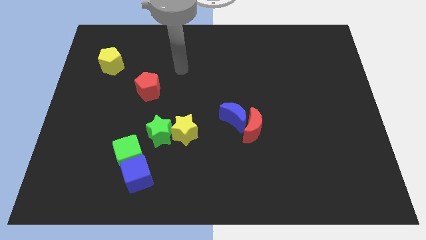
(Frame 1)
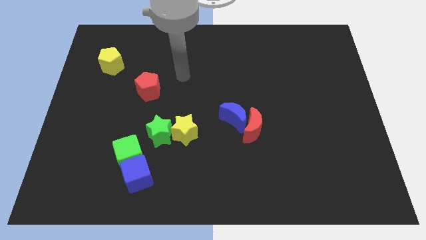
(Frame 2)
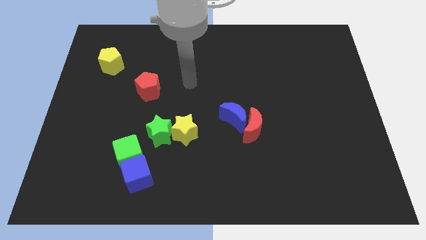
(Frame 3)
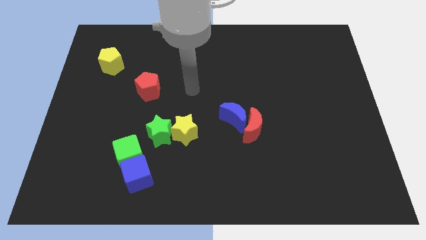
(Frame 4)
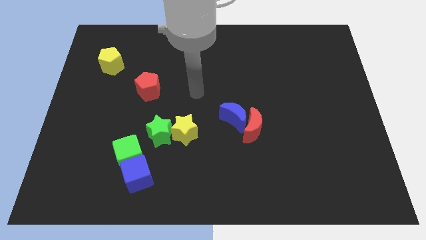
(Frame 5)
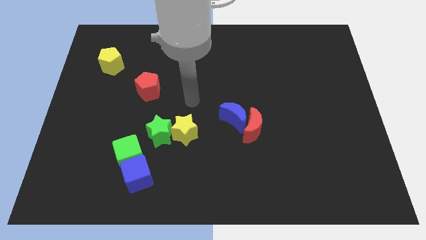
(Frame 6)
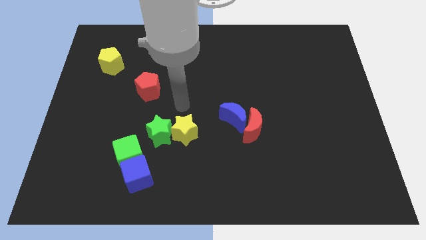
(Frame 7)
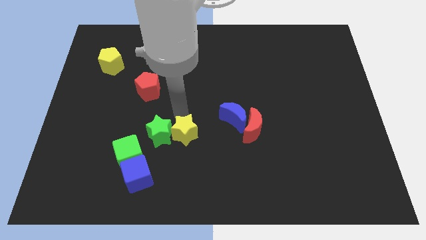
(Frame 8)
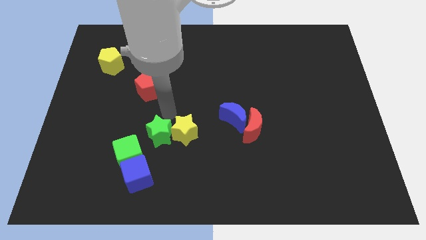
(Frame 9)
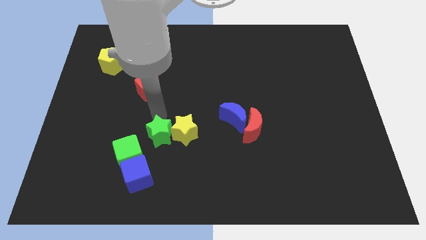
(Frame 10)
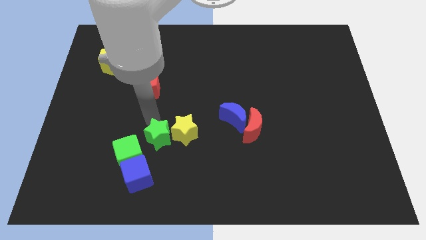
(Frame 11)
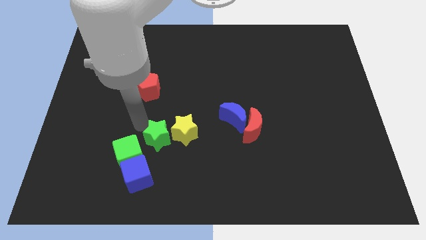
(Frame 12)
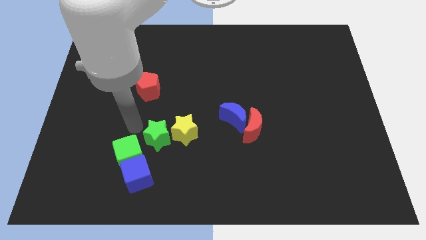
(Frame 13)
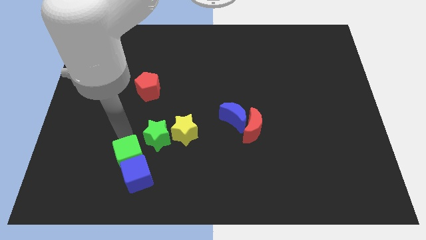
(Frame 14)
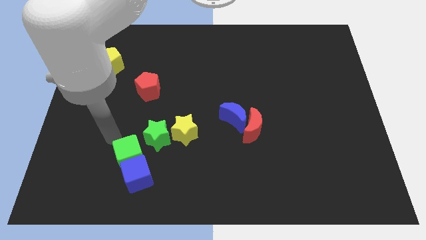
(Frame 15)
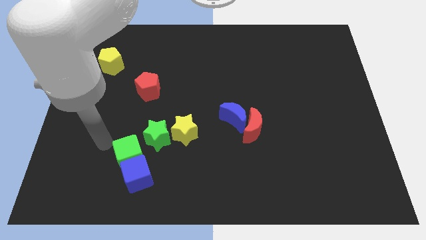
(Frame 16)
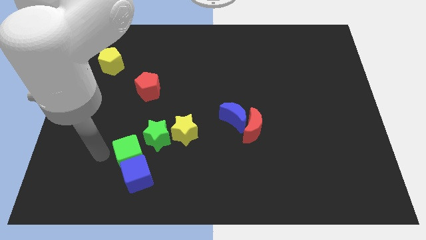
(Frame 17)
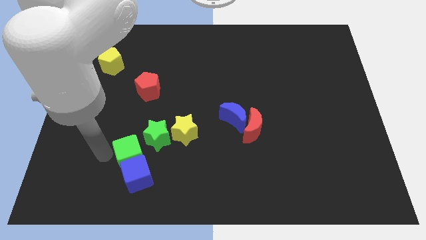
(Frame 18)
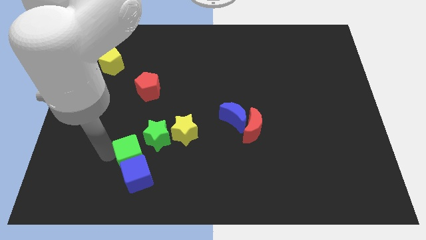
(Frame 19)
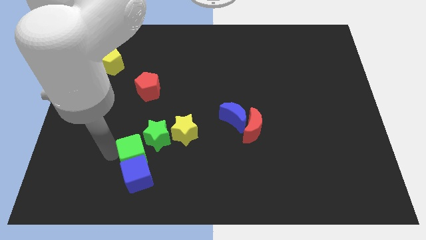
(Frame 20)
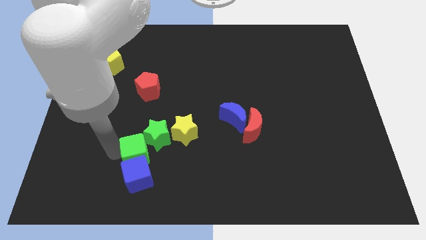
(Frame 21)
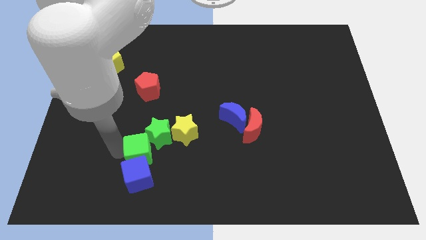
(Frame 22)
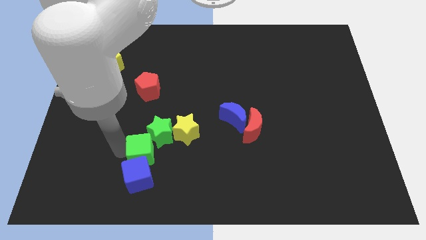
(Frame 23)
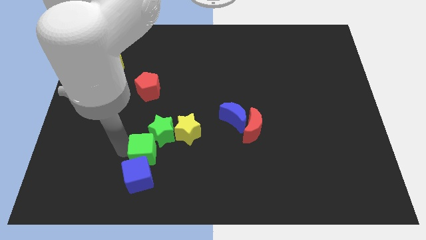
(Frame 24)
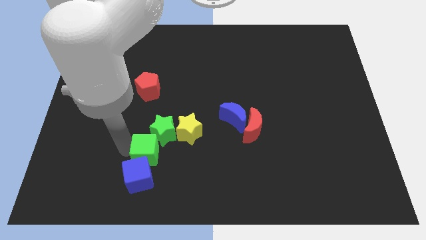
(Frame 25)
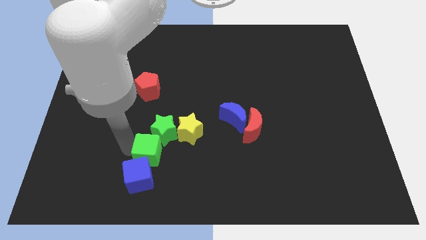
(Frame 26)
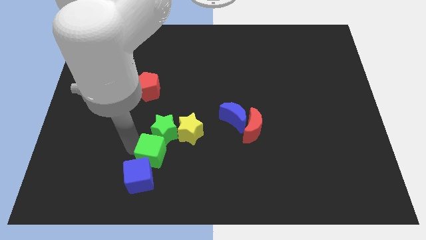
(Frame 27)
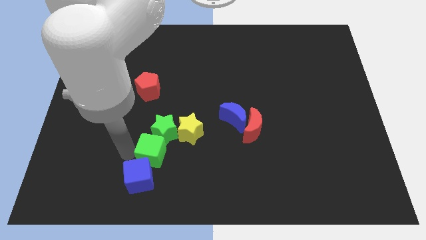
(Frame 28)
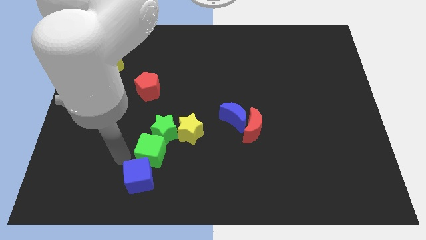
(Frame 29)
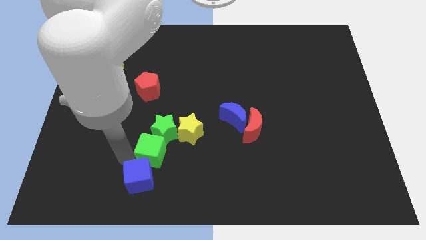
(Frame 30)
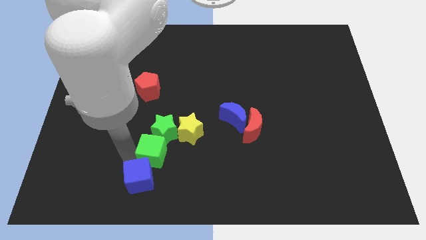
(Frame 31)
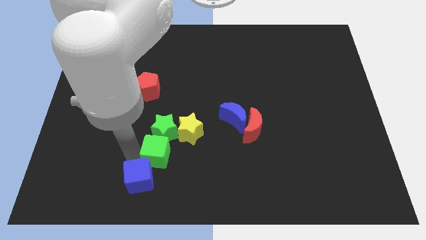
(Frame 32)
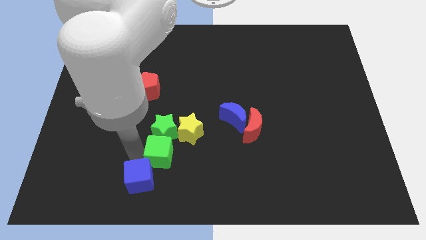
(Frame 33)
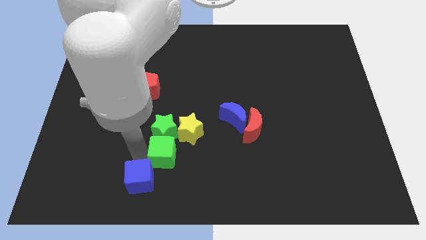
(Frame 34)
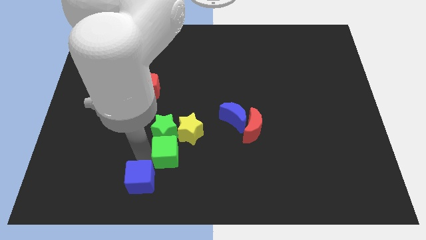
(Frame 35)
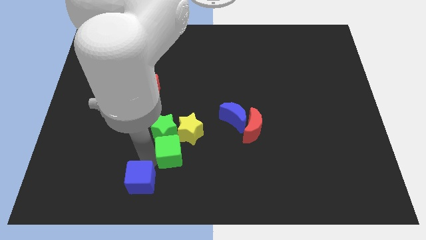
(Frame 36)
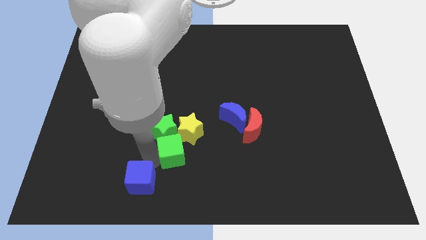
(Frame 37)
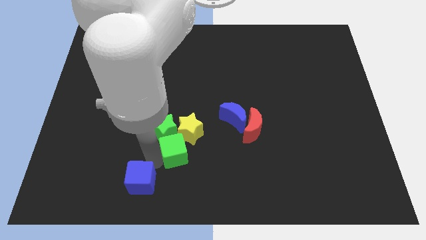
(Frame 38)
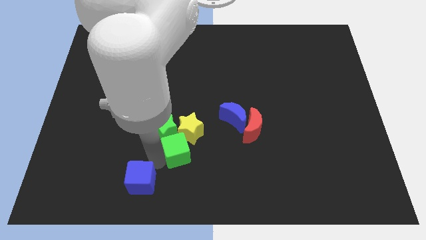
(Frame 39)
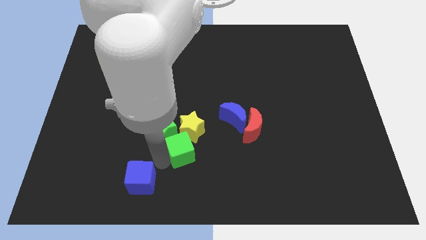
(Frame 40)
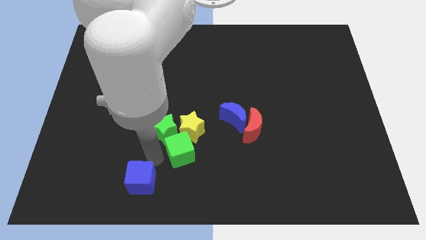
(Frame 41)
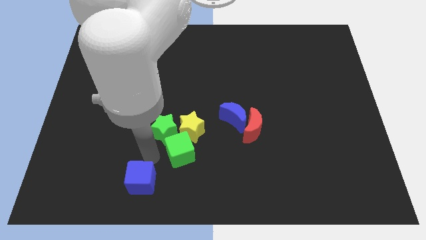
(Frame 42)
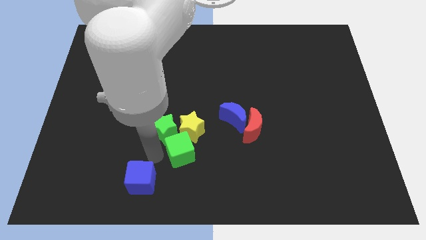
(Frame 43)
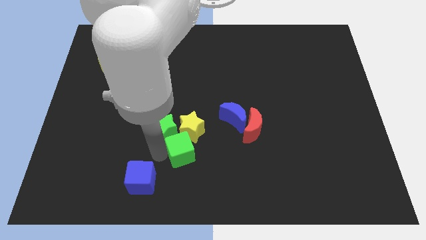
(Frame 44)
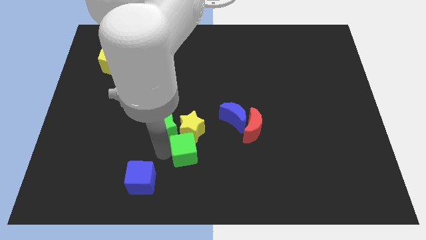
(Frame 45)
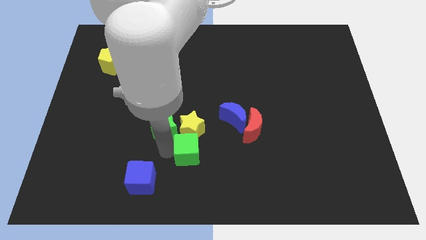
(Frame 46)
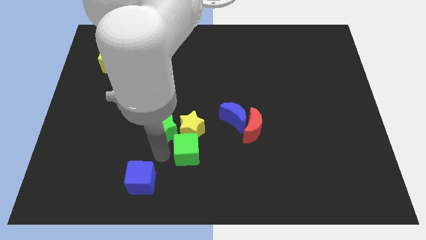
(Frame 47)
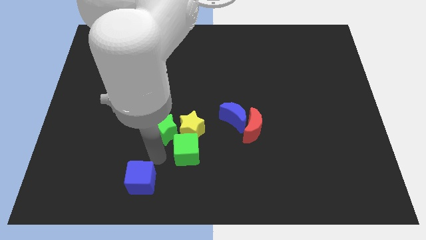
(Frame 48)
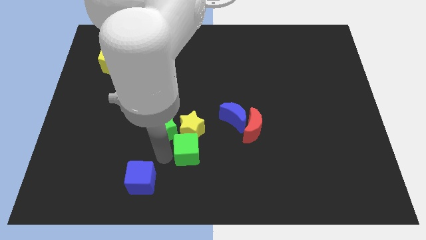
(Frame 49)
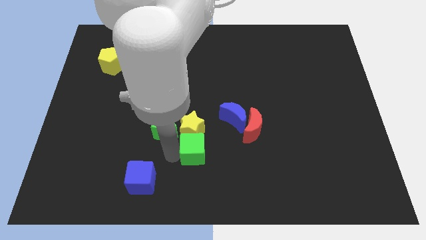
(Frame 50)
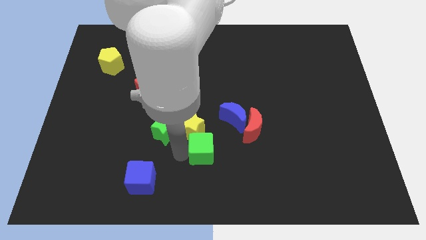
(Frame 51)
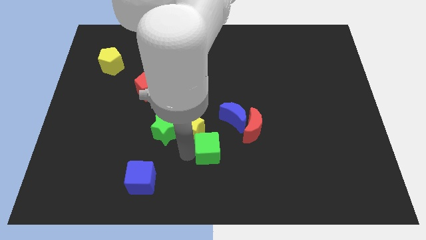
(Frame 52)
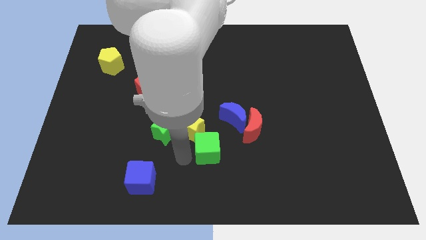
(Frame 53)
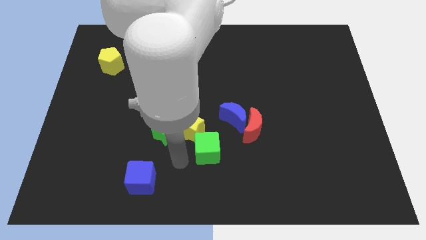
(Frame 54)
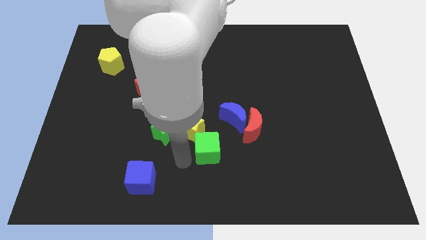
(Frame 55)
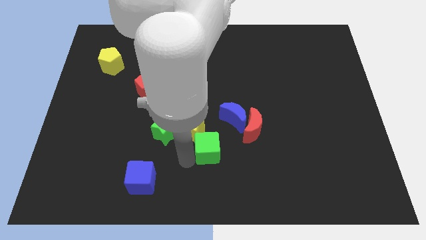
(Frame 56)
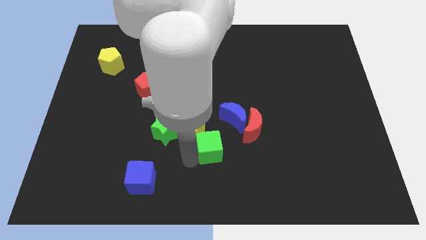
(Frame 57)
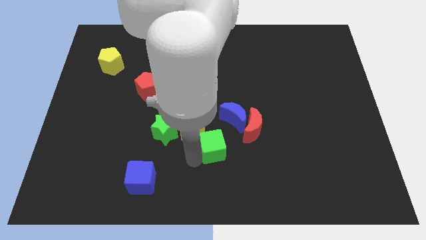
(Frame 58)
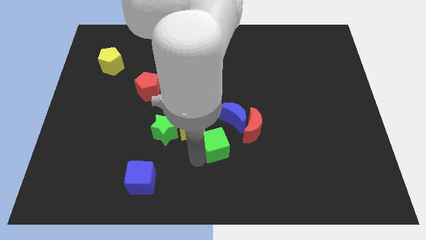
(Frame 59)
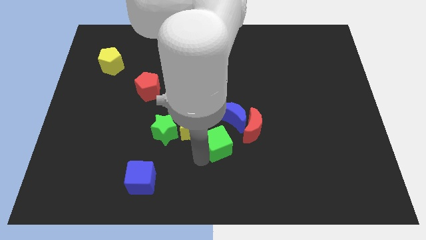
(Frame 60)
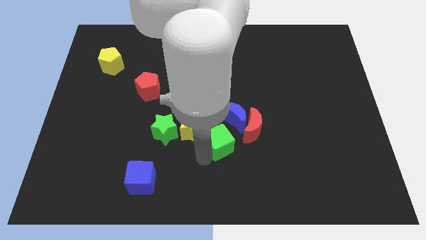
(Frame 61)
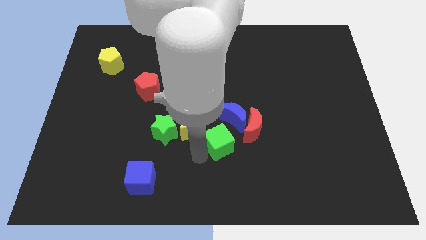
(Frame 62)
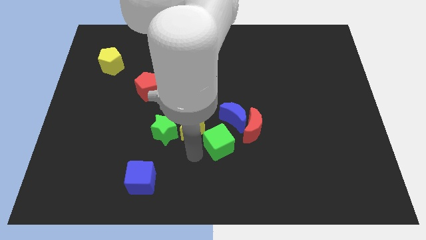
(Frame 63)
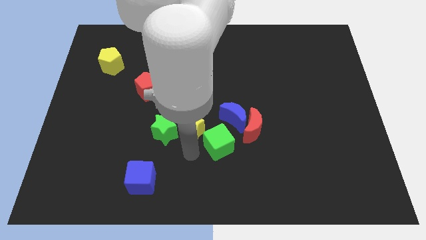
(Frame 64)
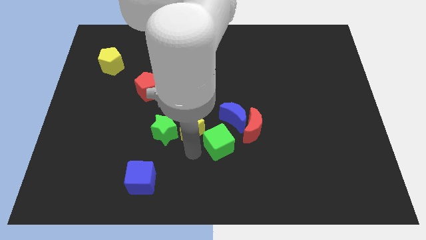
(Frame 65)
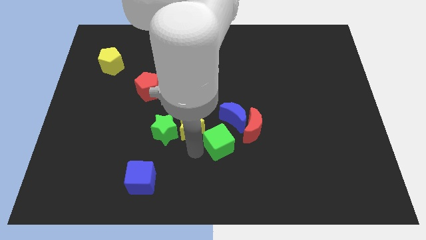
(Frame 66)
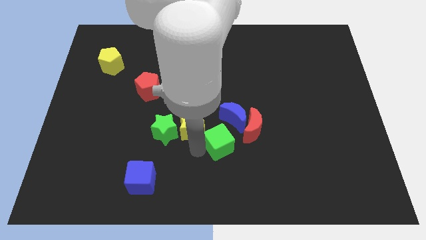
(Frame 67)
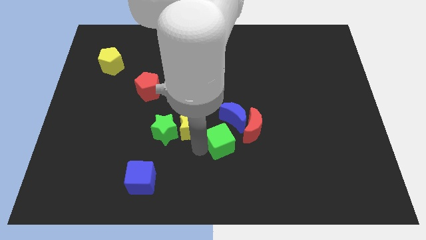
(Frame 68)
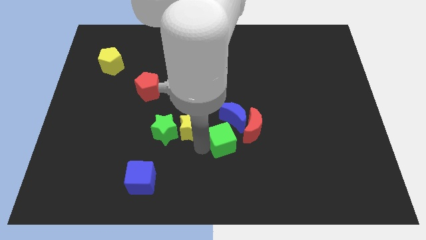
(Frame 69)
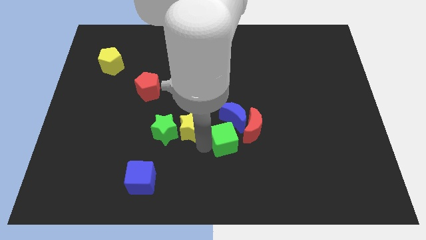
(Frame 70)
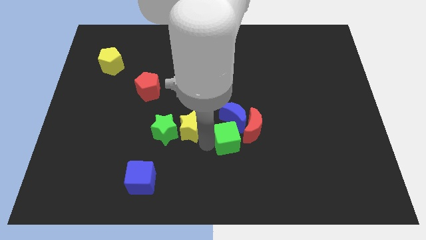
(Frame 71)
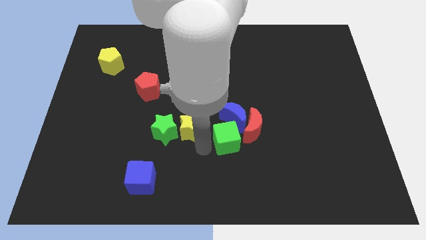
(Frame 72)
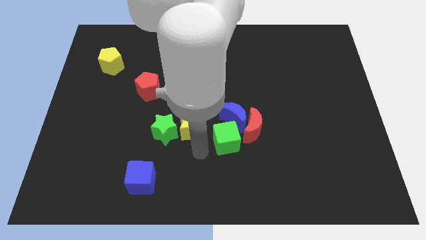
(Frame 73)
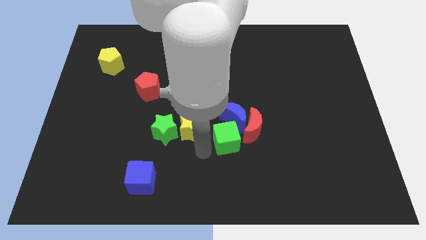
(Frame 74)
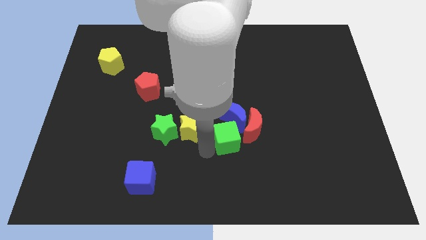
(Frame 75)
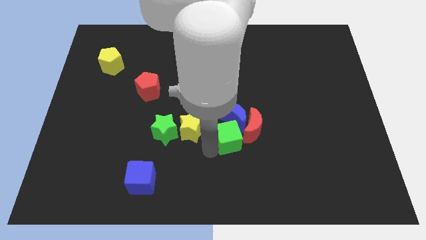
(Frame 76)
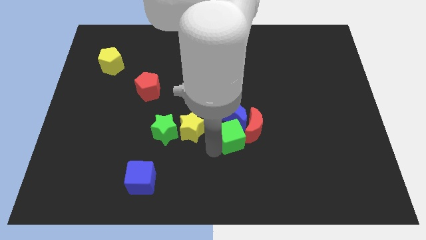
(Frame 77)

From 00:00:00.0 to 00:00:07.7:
push the green cube towards the red moon

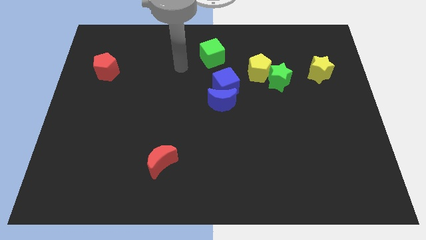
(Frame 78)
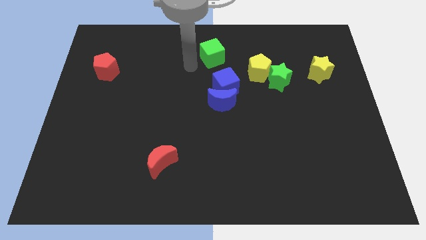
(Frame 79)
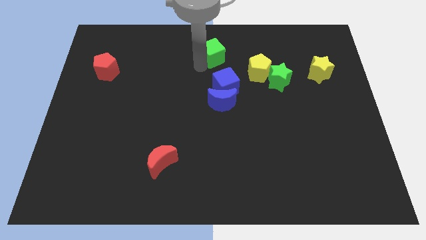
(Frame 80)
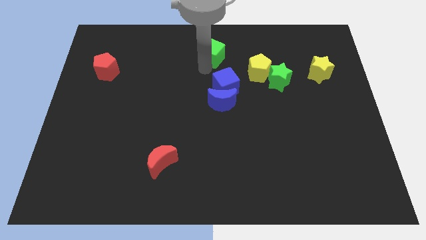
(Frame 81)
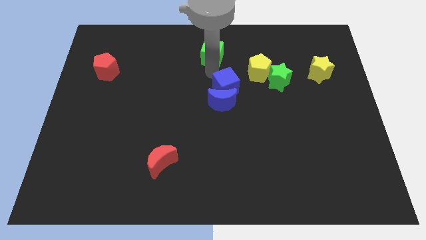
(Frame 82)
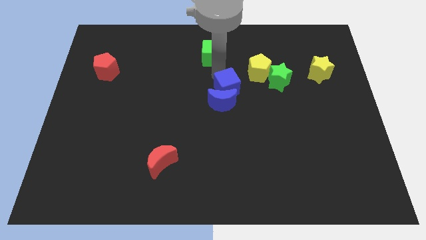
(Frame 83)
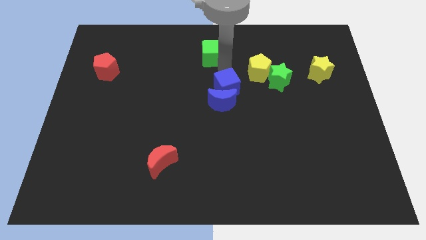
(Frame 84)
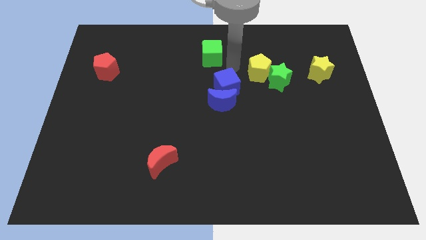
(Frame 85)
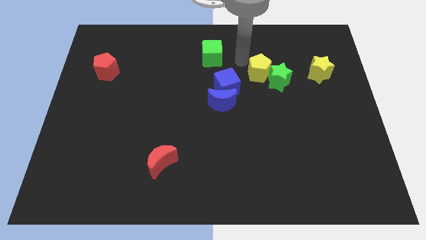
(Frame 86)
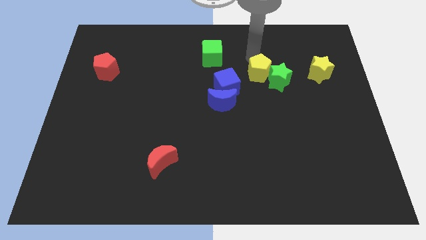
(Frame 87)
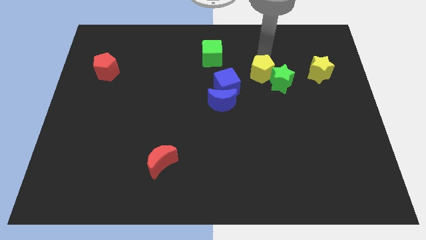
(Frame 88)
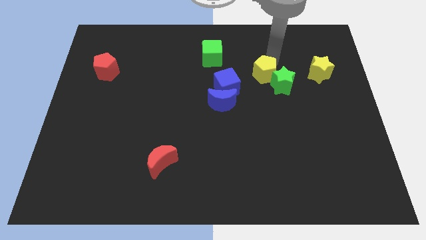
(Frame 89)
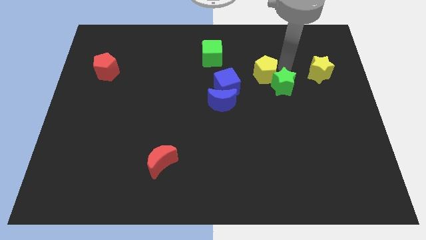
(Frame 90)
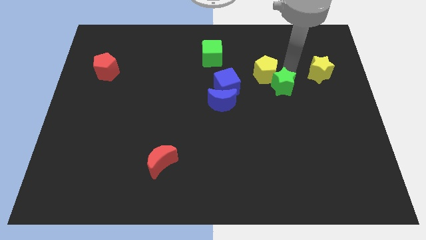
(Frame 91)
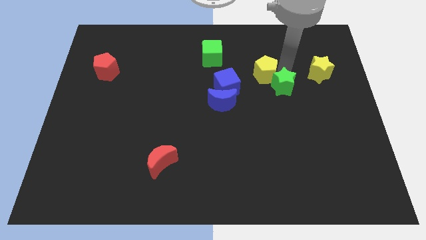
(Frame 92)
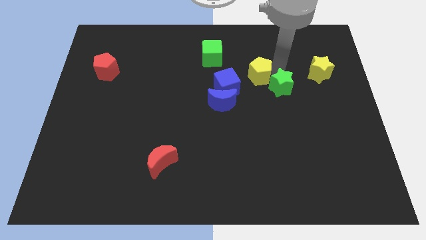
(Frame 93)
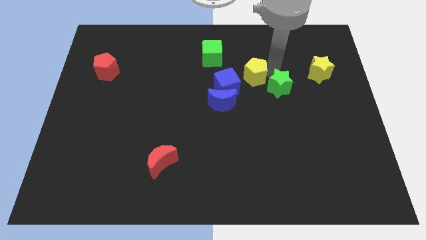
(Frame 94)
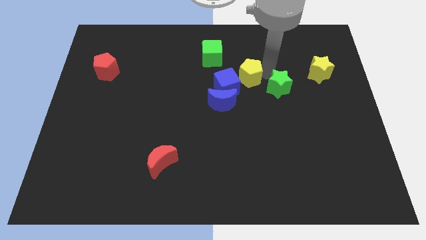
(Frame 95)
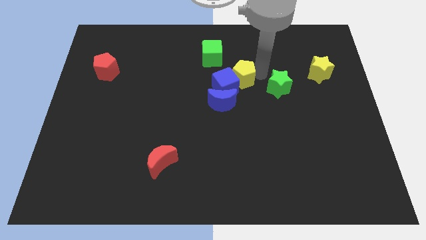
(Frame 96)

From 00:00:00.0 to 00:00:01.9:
move the yellow pentagon to the blue cube
